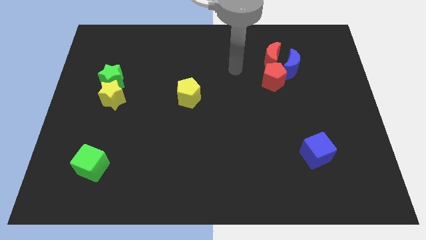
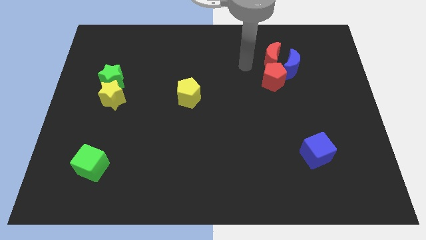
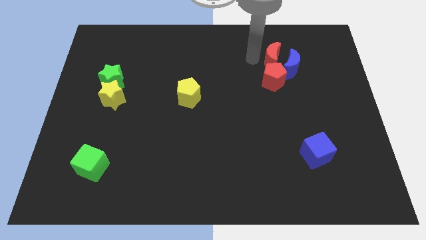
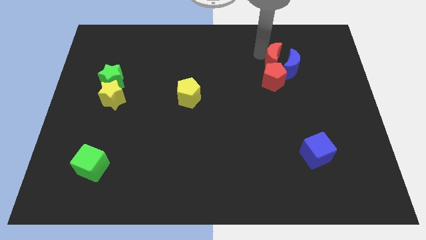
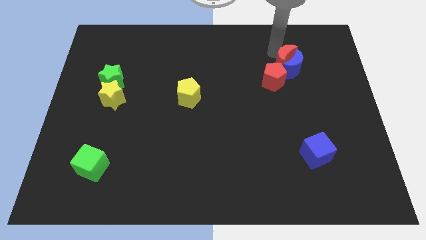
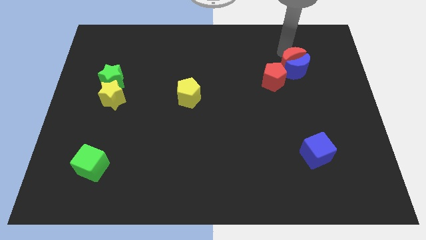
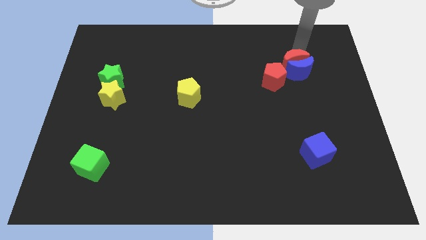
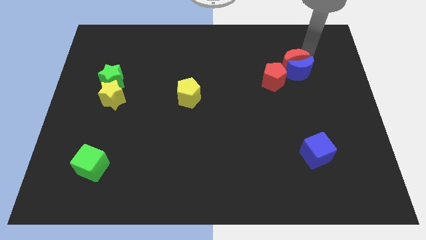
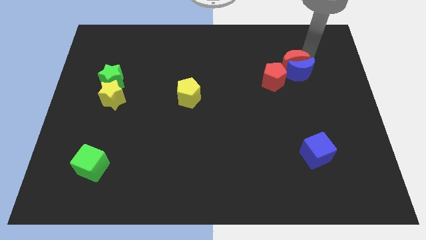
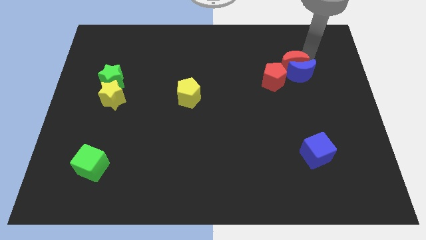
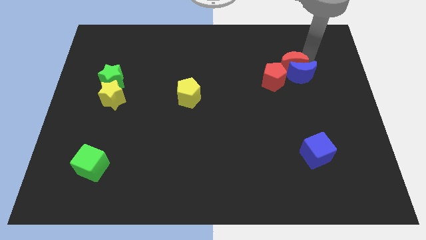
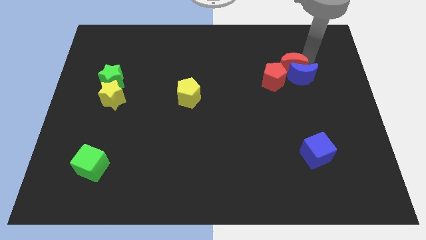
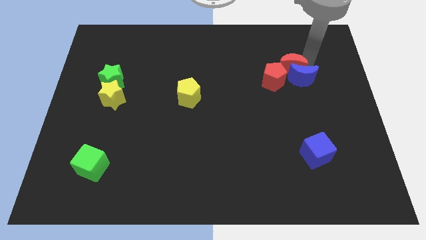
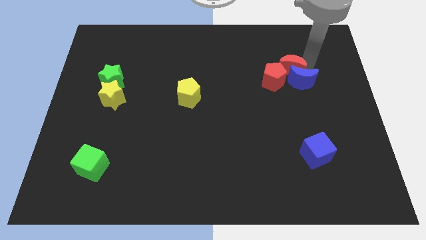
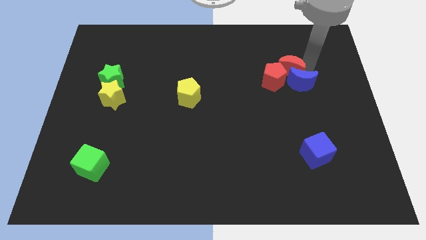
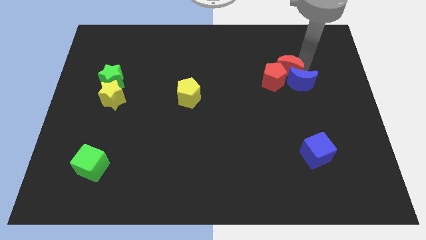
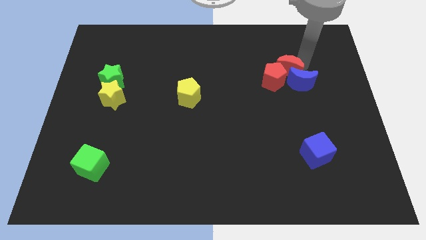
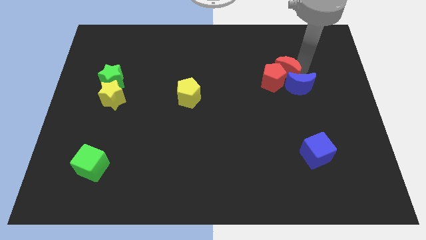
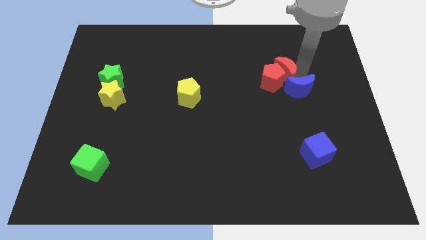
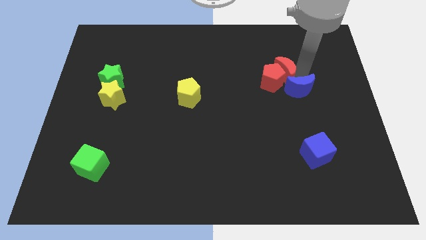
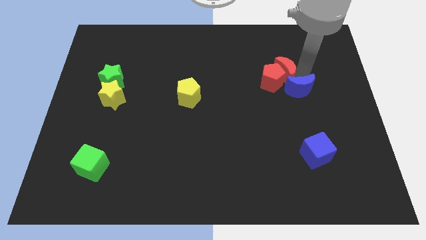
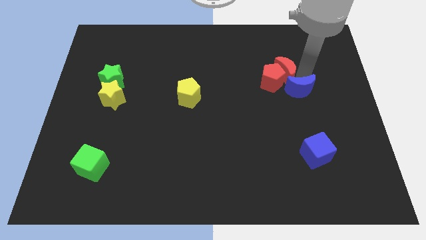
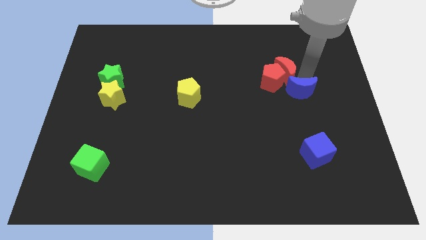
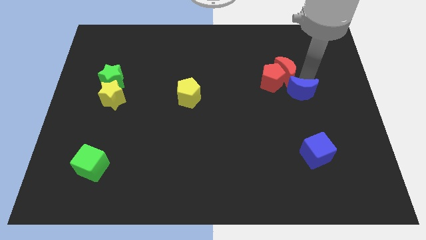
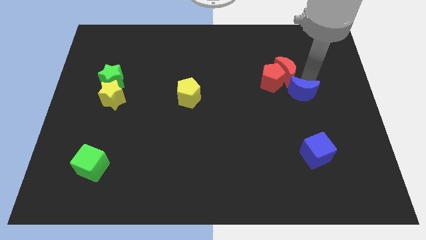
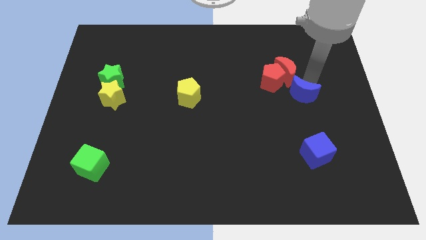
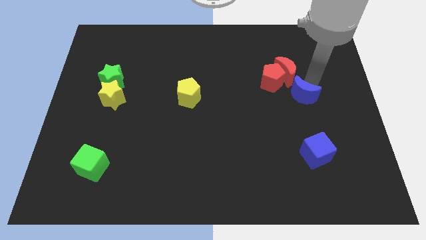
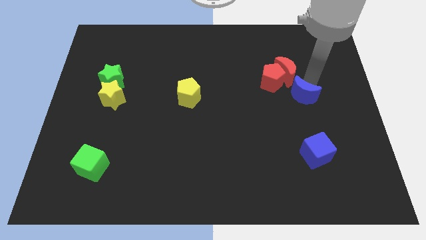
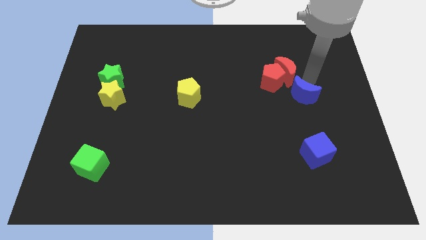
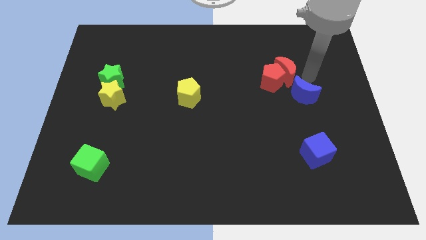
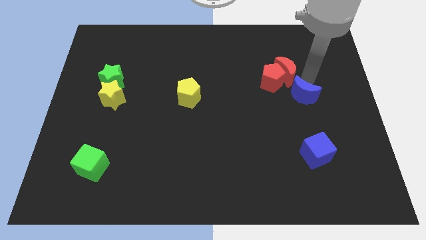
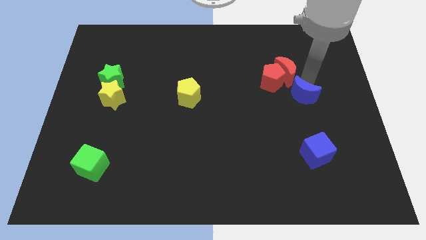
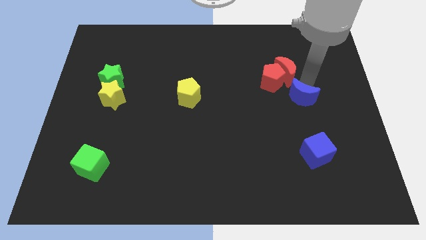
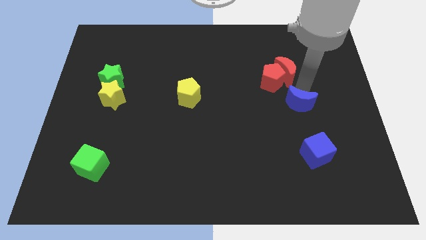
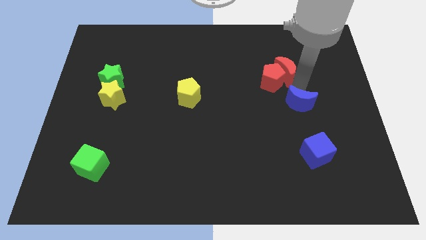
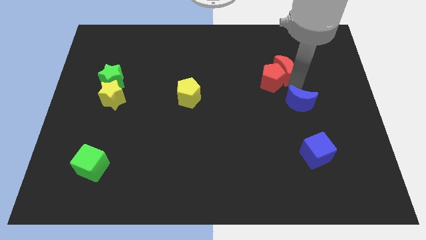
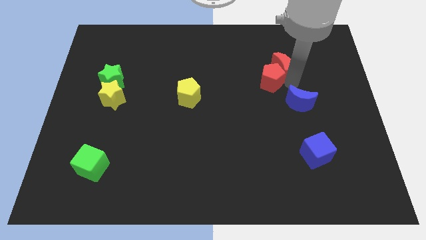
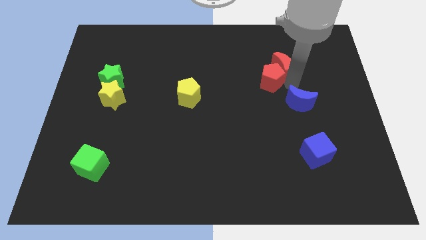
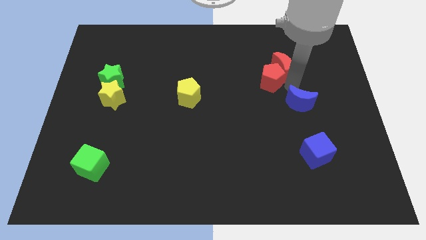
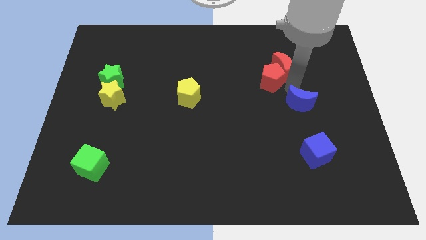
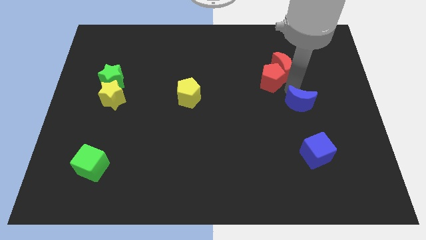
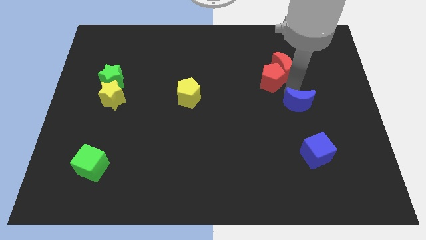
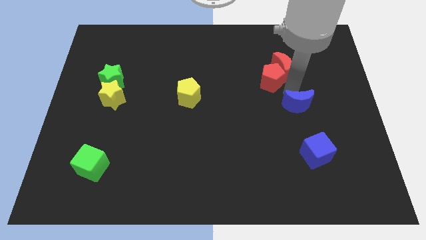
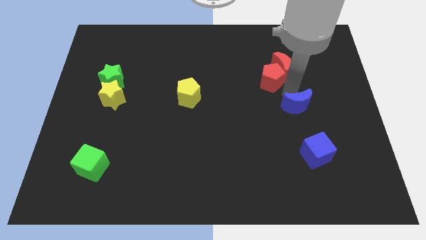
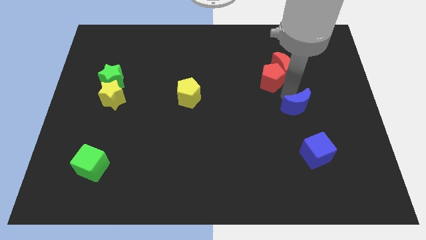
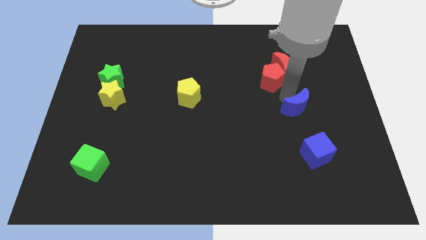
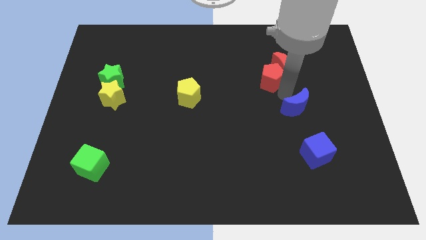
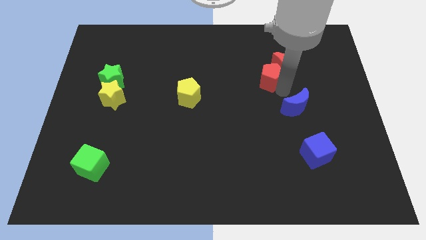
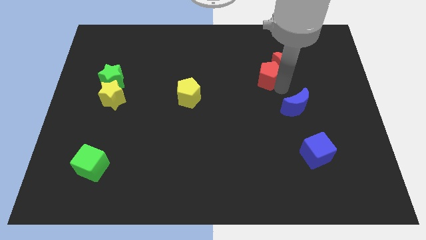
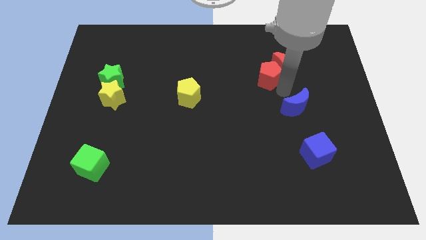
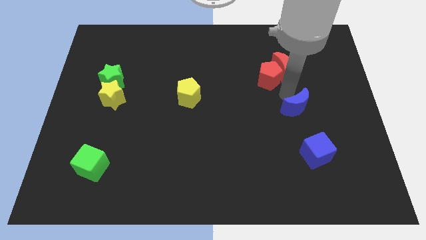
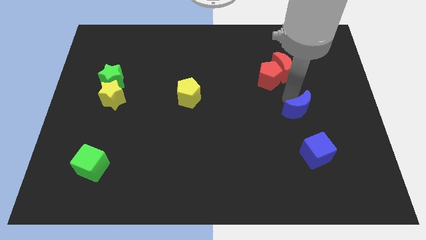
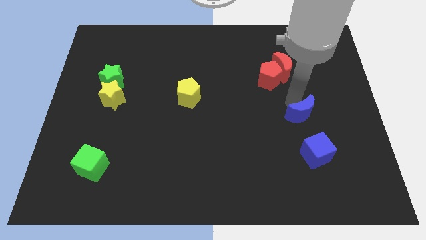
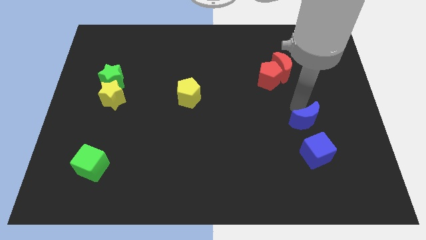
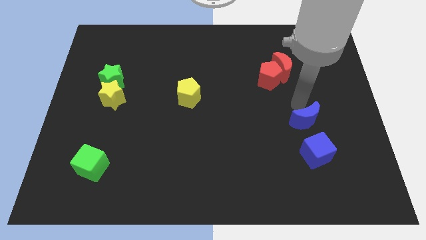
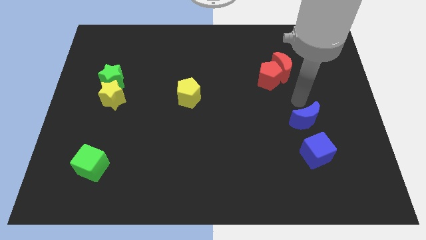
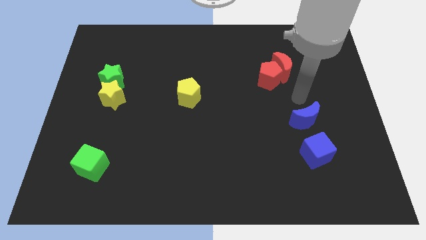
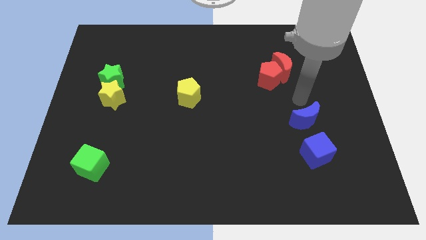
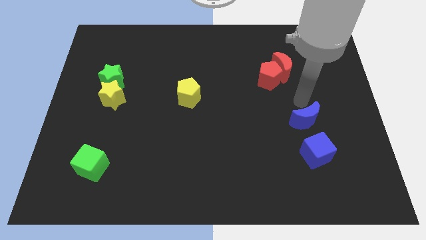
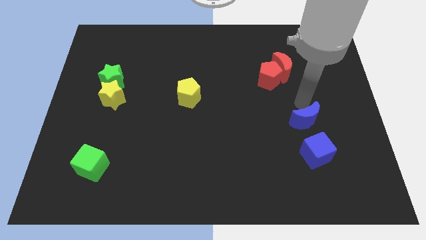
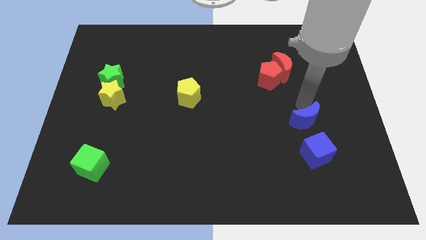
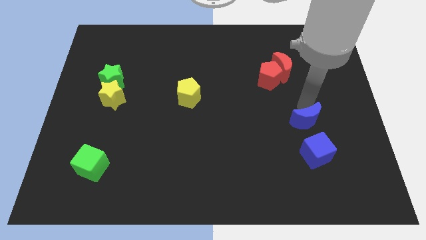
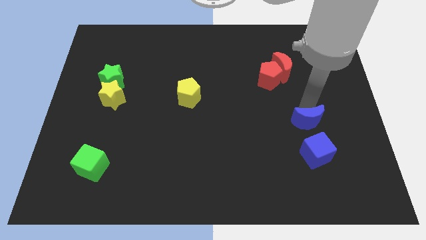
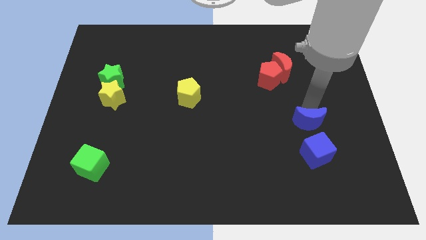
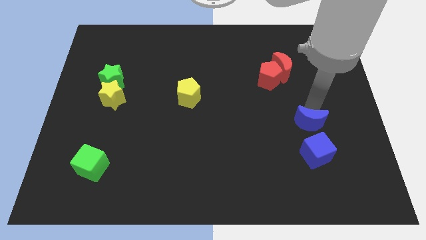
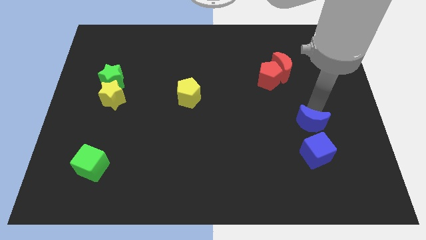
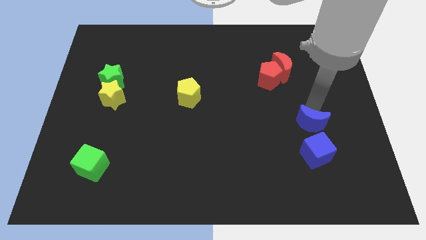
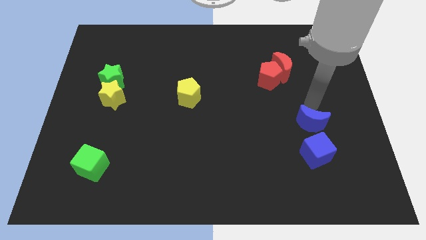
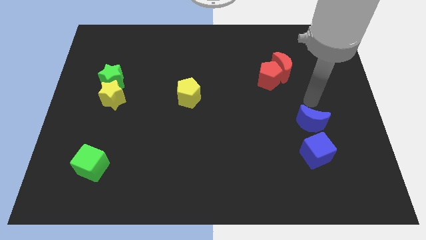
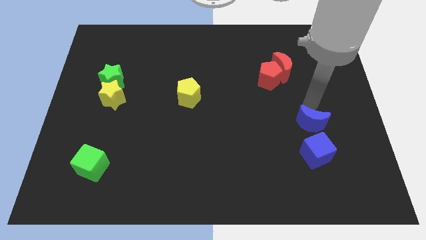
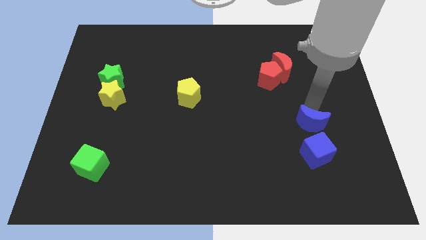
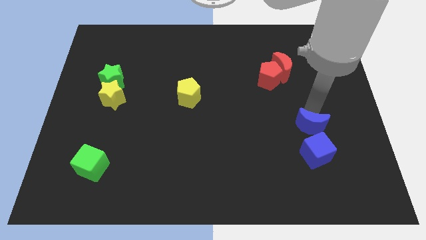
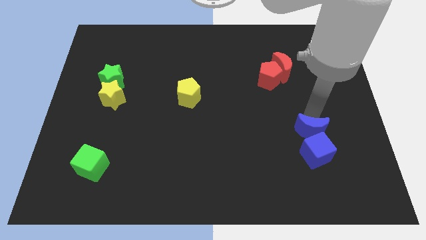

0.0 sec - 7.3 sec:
move the blue moon next to the blue cube
